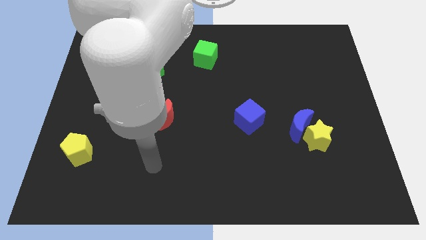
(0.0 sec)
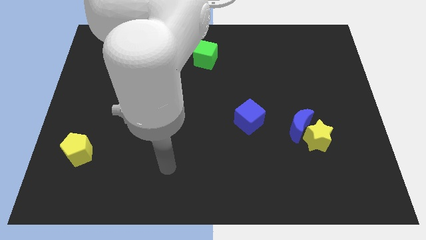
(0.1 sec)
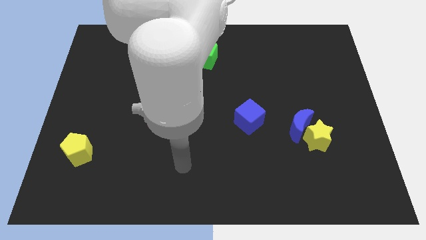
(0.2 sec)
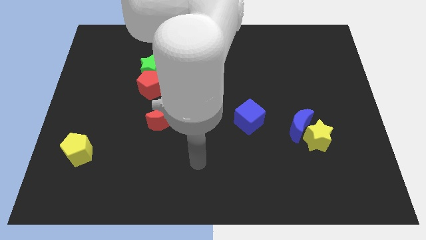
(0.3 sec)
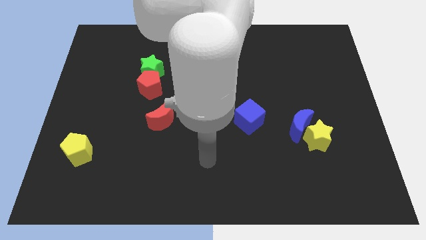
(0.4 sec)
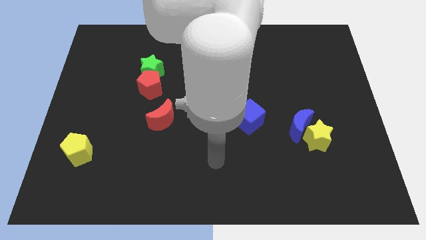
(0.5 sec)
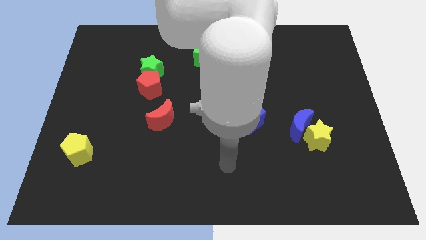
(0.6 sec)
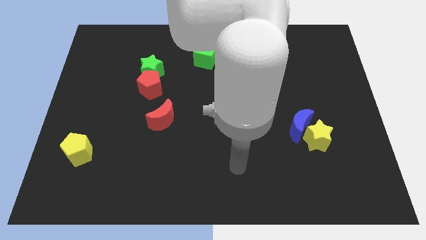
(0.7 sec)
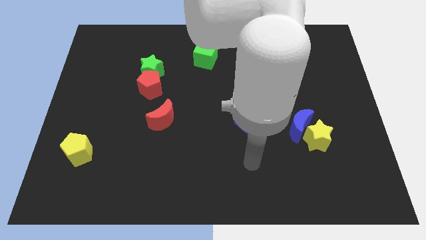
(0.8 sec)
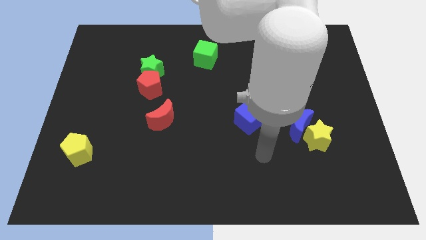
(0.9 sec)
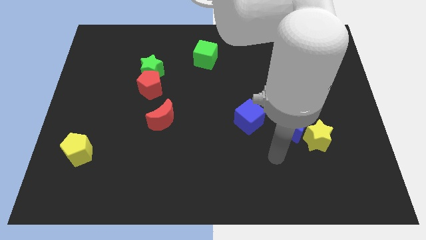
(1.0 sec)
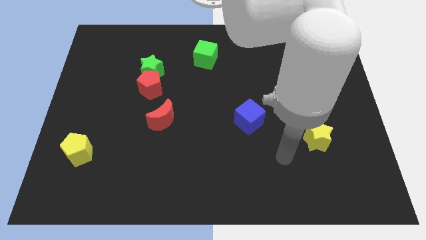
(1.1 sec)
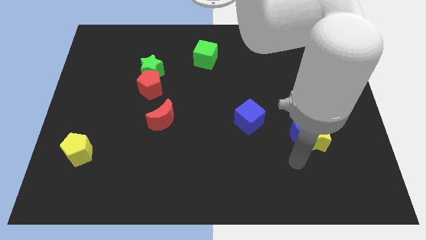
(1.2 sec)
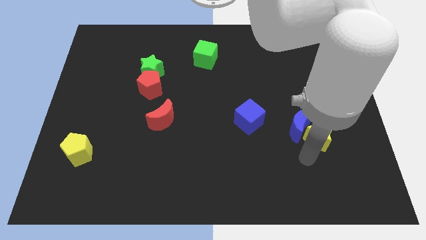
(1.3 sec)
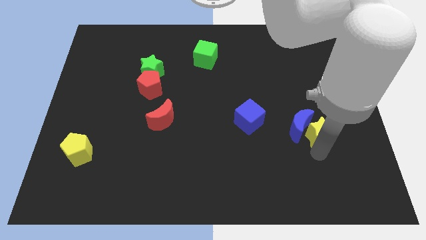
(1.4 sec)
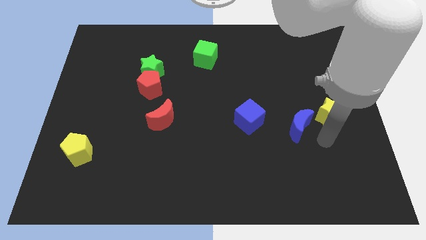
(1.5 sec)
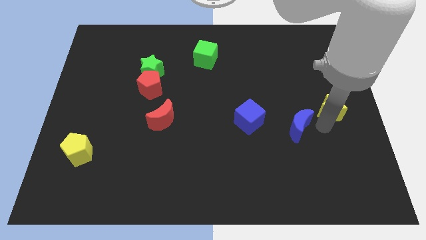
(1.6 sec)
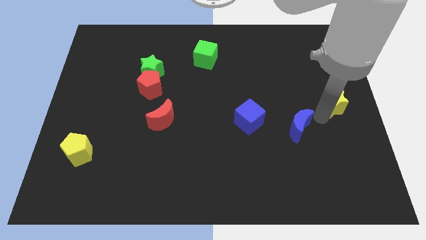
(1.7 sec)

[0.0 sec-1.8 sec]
separate the blue moon from the yellow star

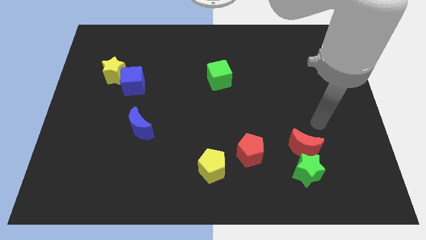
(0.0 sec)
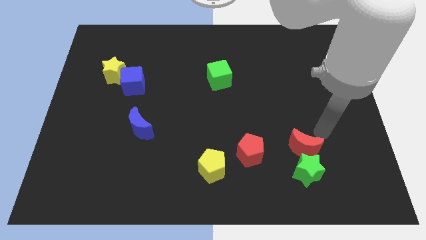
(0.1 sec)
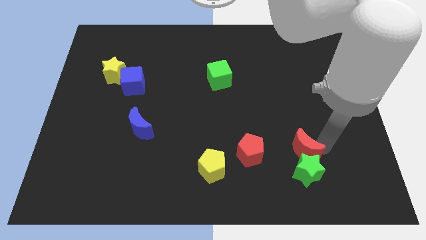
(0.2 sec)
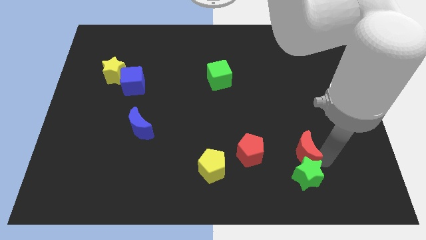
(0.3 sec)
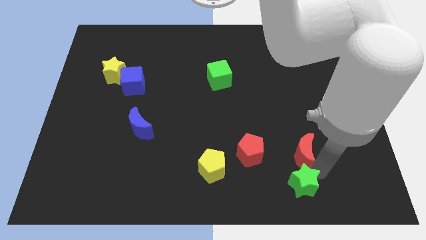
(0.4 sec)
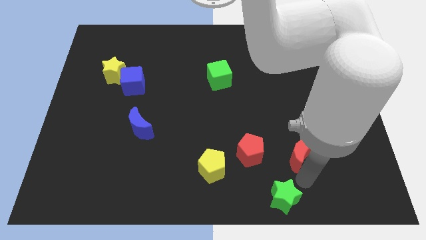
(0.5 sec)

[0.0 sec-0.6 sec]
move the red moon away from the green star

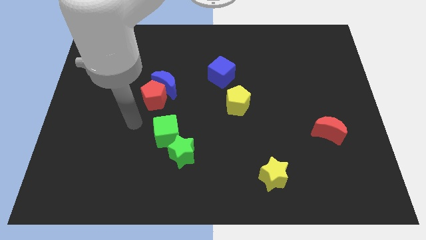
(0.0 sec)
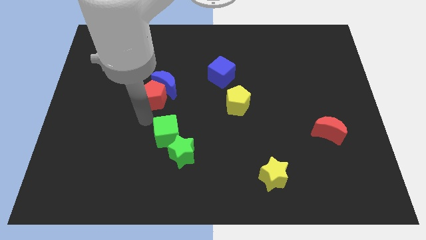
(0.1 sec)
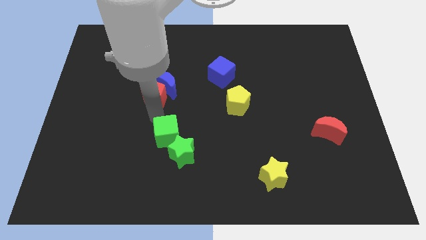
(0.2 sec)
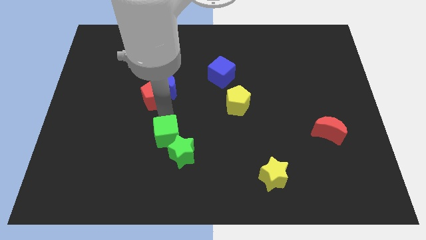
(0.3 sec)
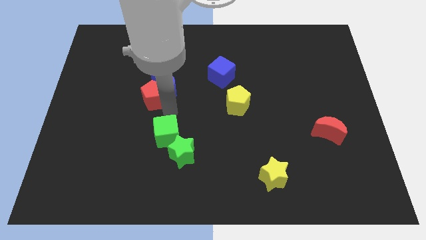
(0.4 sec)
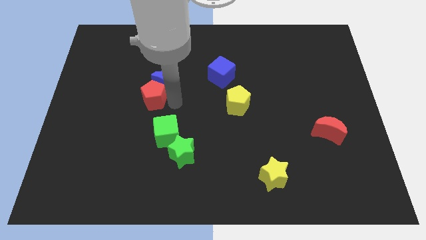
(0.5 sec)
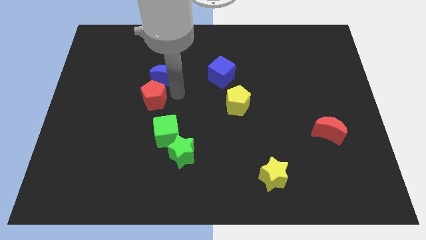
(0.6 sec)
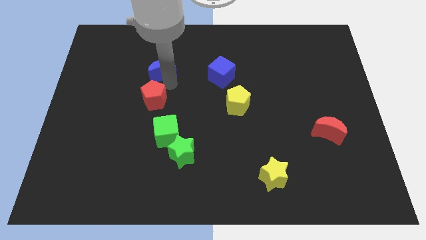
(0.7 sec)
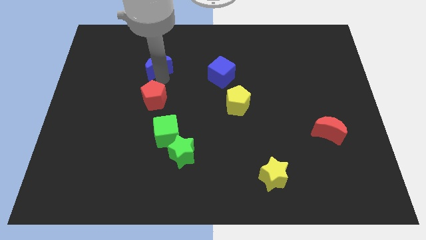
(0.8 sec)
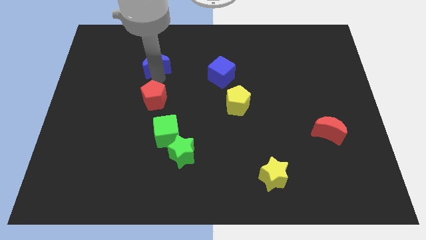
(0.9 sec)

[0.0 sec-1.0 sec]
pull the red pentagon apart from the blue moon

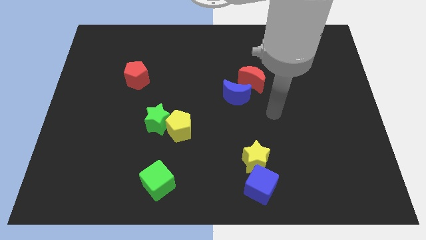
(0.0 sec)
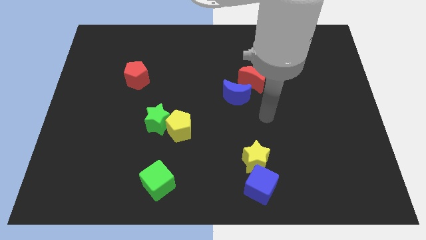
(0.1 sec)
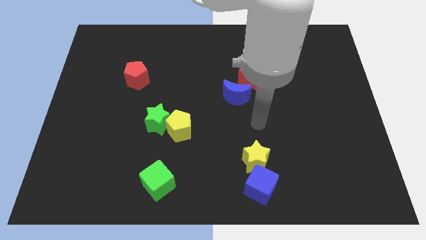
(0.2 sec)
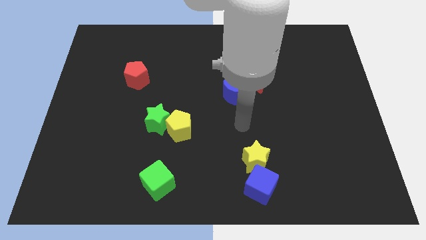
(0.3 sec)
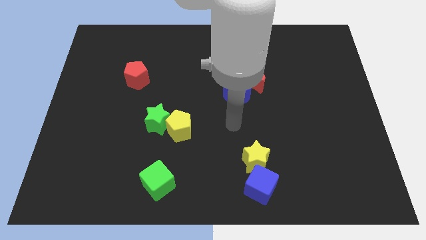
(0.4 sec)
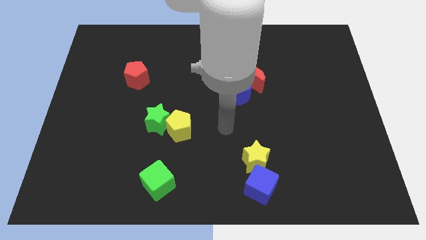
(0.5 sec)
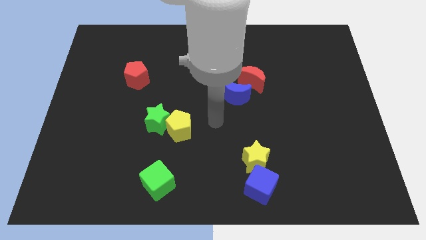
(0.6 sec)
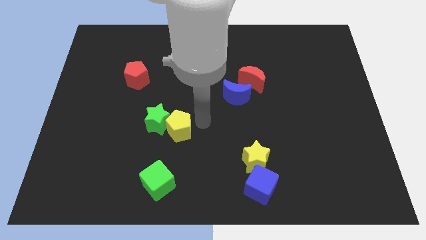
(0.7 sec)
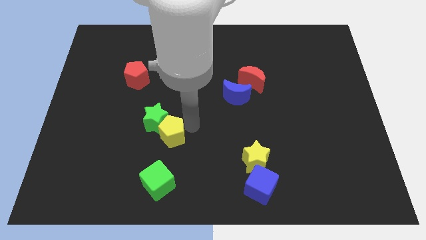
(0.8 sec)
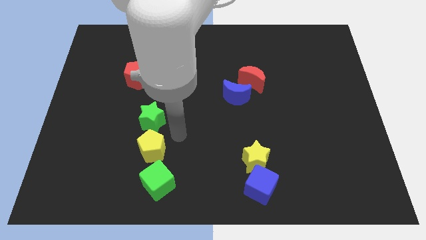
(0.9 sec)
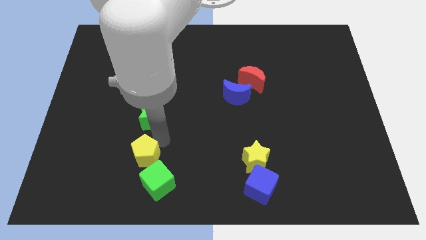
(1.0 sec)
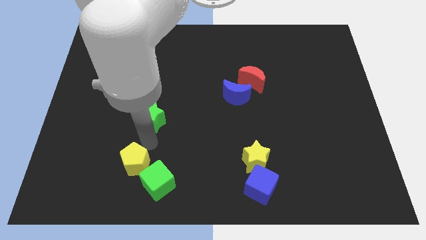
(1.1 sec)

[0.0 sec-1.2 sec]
separate the green star from the yellow pentagon

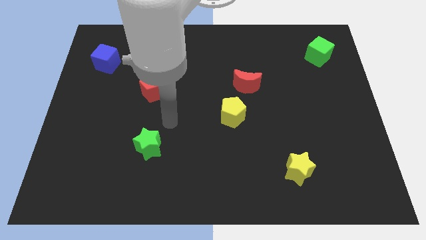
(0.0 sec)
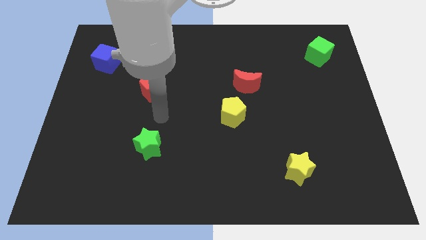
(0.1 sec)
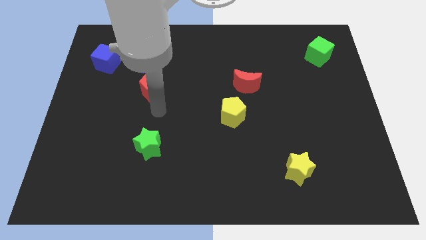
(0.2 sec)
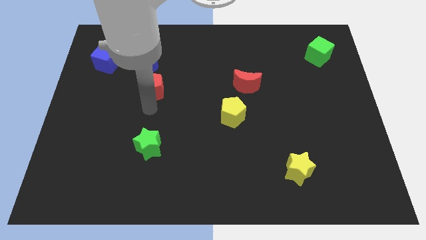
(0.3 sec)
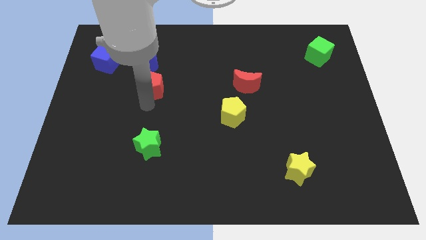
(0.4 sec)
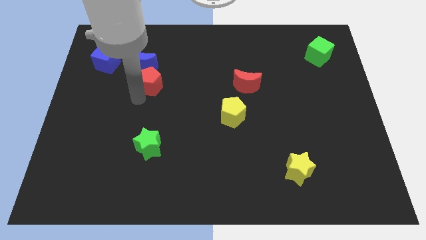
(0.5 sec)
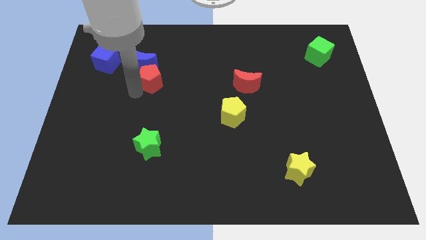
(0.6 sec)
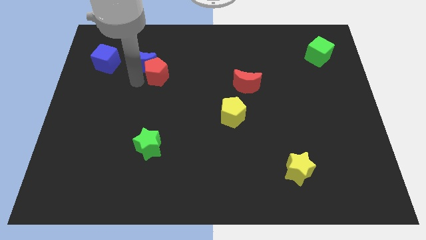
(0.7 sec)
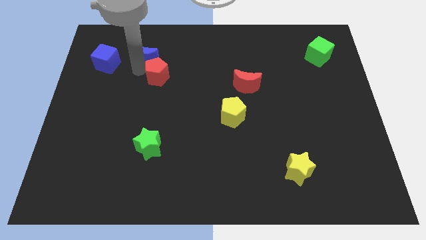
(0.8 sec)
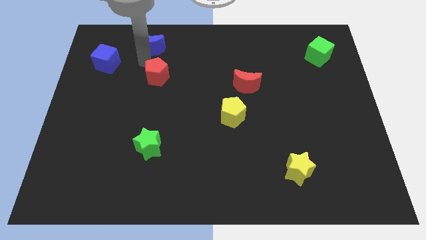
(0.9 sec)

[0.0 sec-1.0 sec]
separate the red pentagon from the blue moon

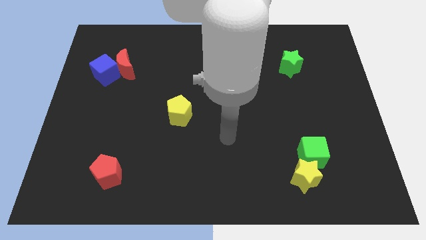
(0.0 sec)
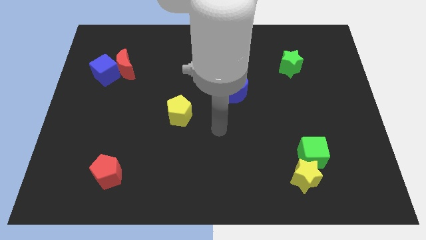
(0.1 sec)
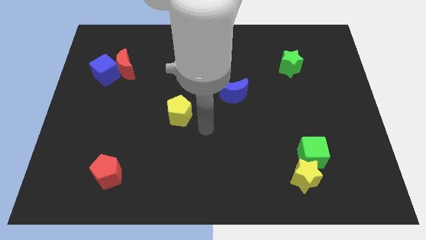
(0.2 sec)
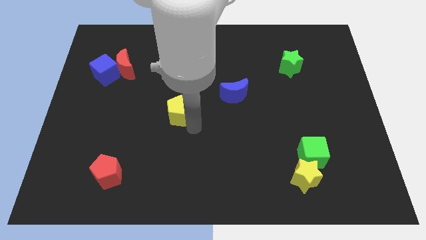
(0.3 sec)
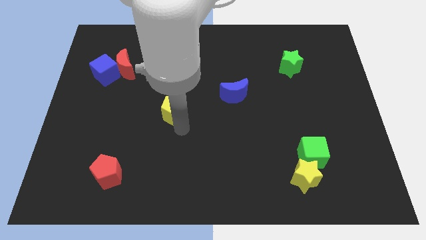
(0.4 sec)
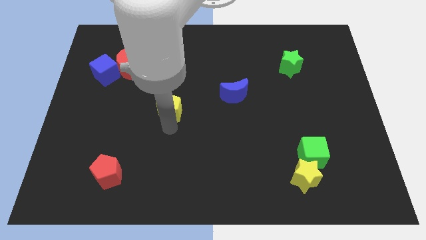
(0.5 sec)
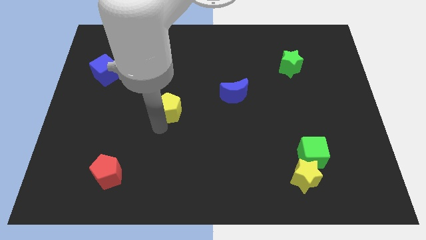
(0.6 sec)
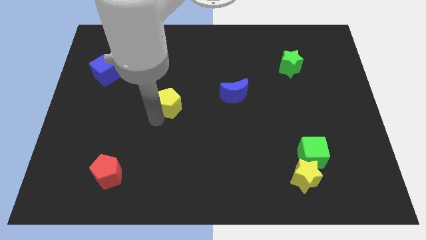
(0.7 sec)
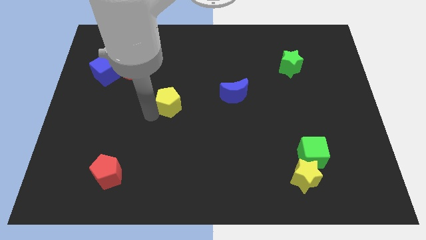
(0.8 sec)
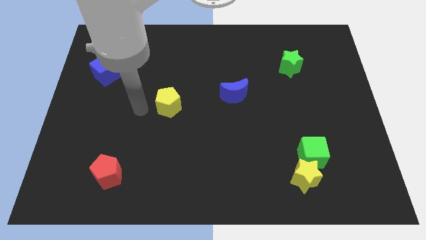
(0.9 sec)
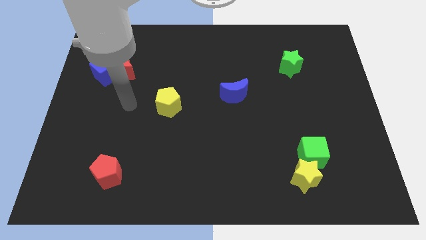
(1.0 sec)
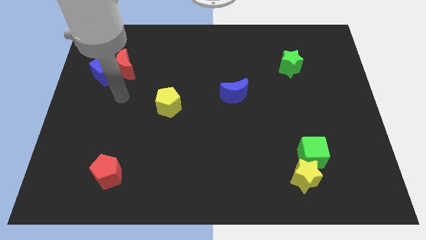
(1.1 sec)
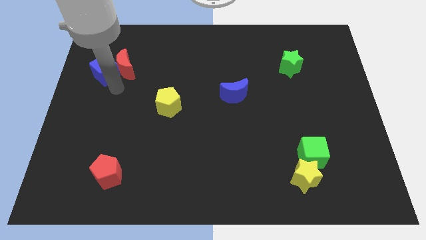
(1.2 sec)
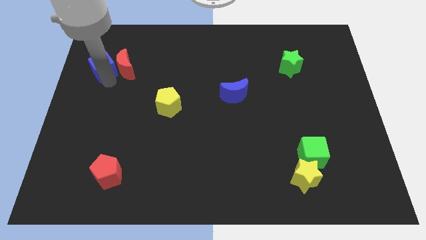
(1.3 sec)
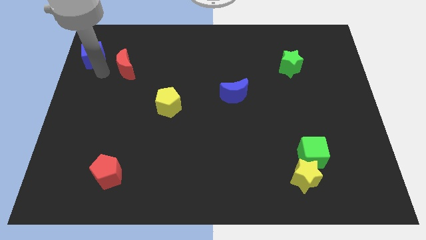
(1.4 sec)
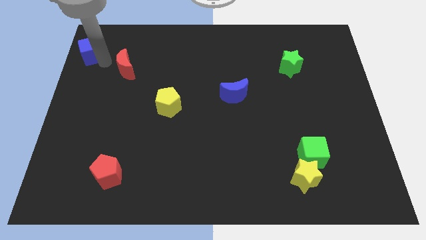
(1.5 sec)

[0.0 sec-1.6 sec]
pull the red moon apart from the blue cube

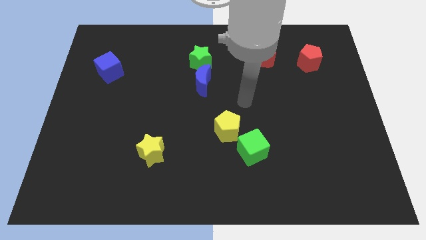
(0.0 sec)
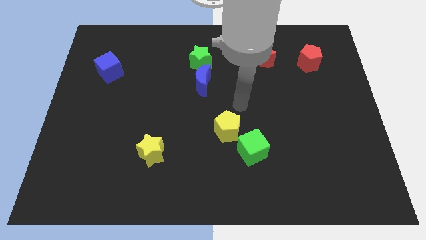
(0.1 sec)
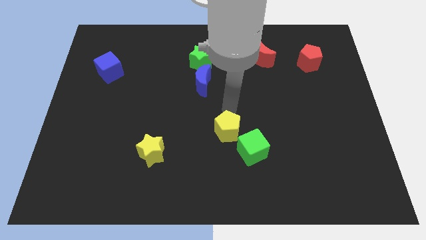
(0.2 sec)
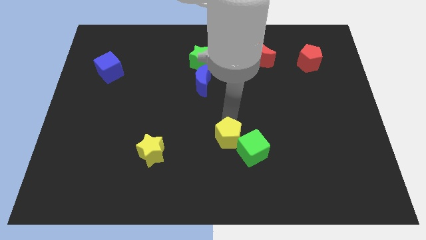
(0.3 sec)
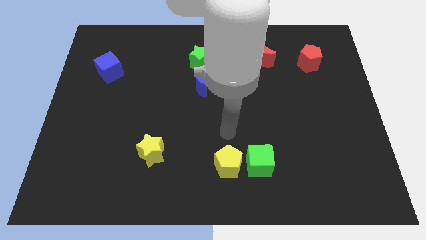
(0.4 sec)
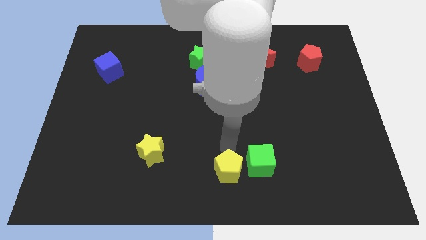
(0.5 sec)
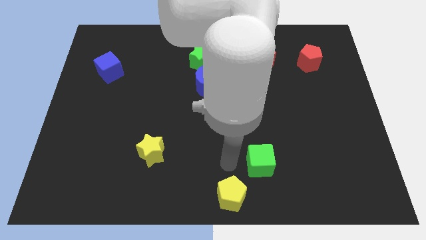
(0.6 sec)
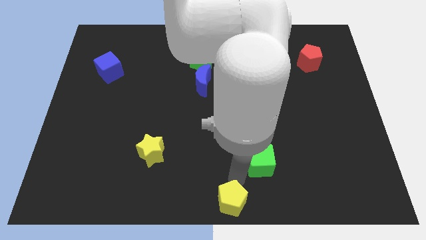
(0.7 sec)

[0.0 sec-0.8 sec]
separate the green cube from the yellow pentagon

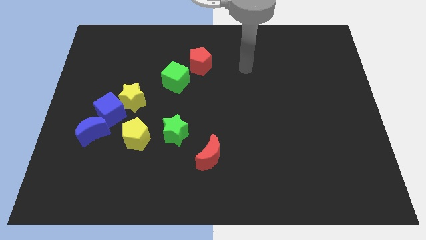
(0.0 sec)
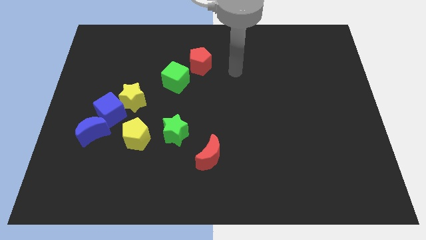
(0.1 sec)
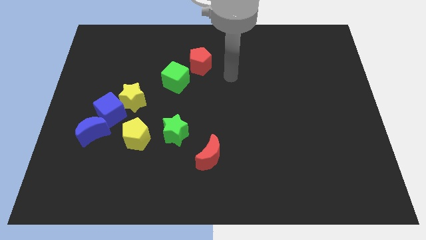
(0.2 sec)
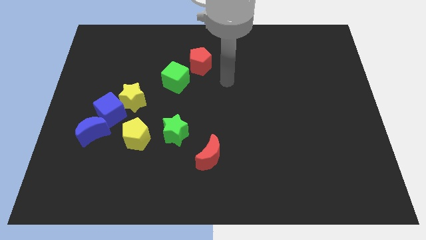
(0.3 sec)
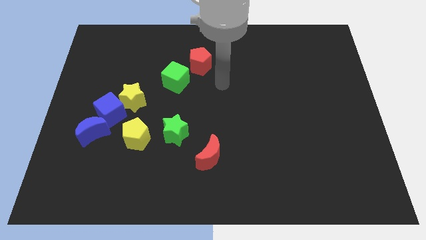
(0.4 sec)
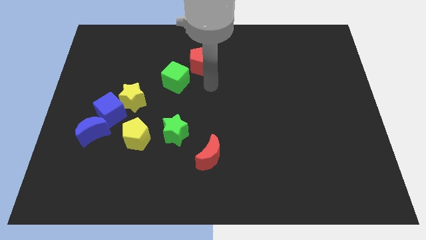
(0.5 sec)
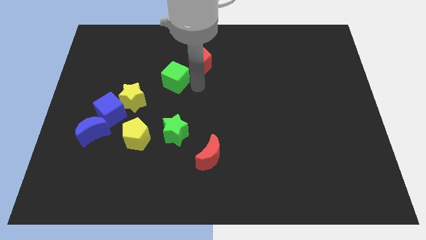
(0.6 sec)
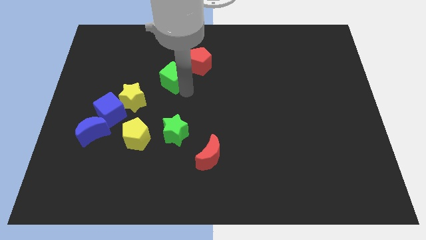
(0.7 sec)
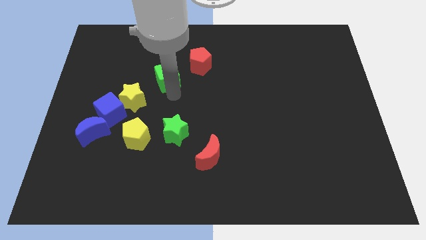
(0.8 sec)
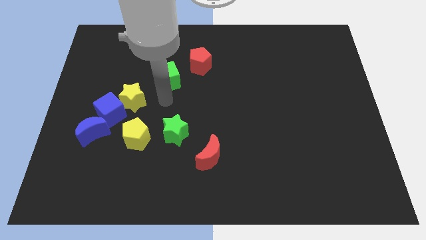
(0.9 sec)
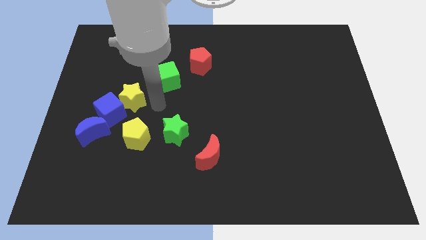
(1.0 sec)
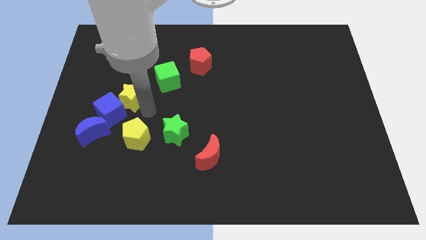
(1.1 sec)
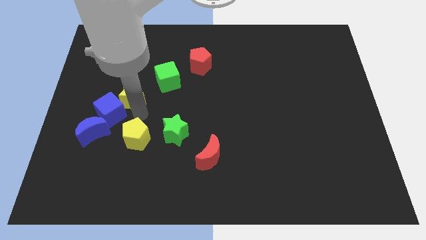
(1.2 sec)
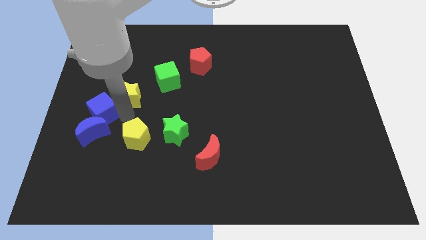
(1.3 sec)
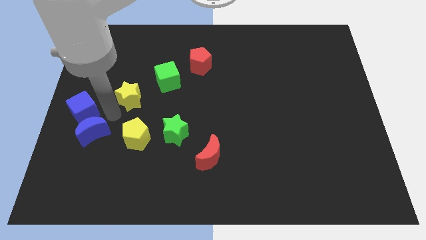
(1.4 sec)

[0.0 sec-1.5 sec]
move the yellow star away from the blue cube
